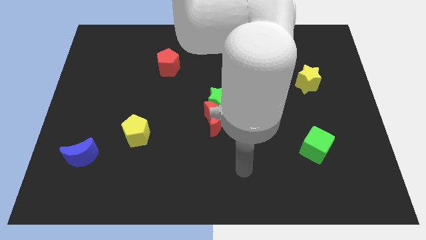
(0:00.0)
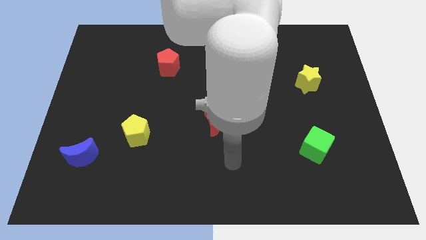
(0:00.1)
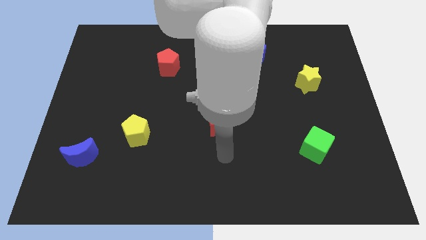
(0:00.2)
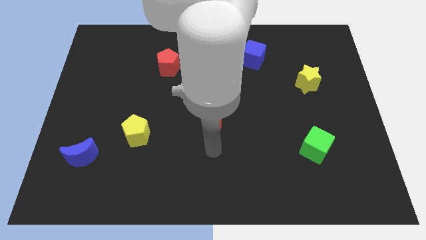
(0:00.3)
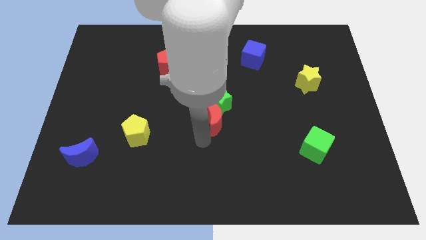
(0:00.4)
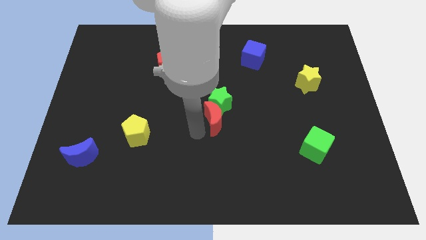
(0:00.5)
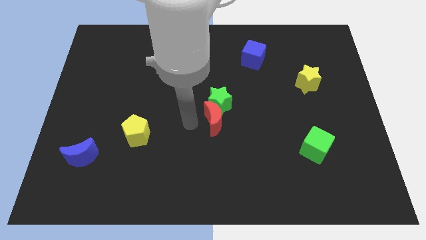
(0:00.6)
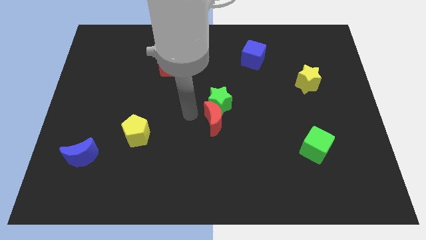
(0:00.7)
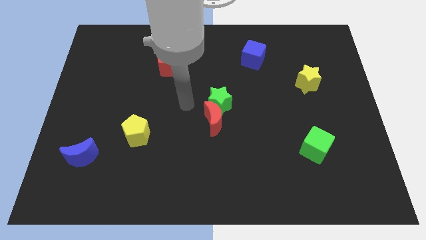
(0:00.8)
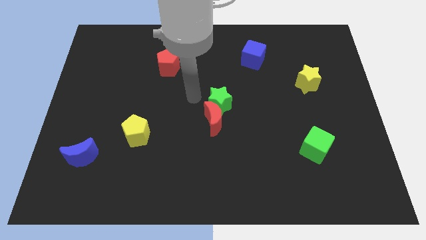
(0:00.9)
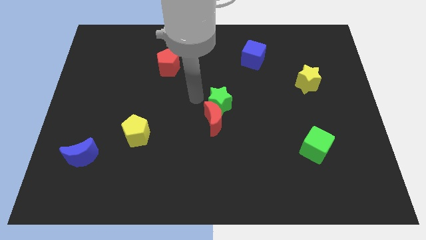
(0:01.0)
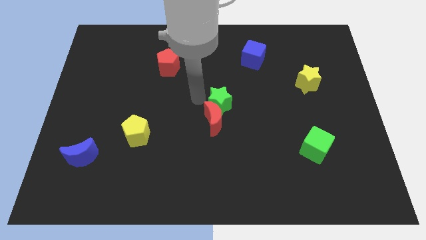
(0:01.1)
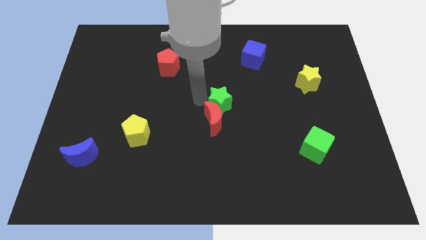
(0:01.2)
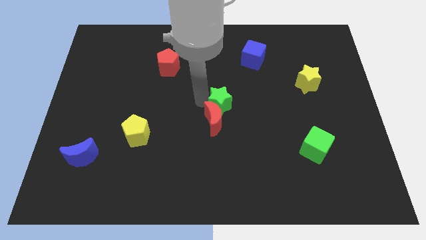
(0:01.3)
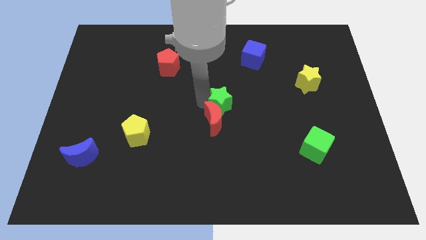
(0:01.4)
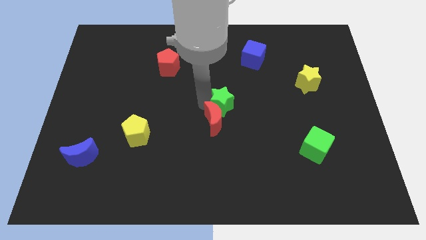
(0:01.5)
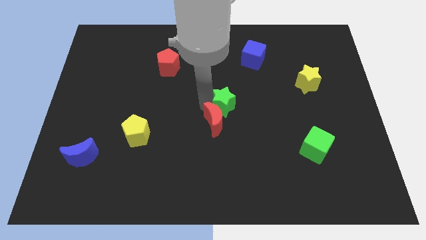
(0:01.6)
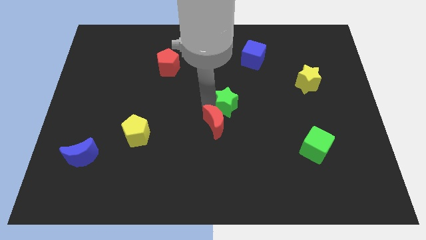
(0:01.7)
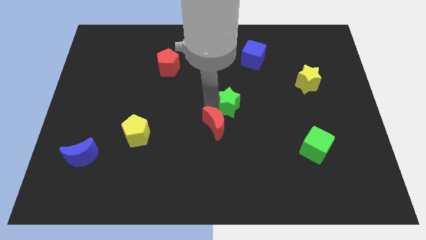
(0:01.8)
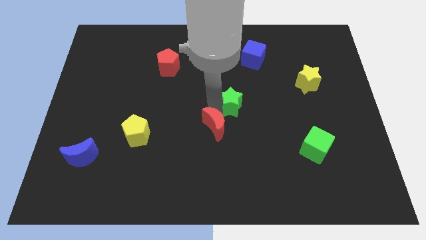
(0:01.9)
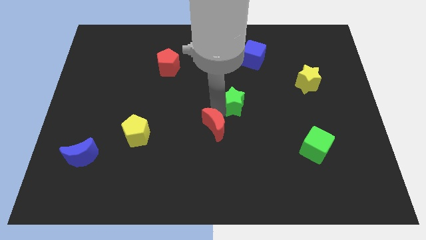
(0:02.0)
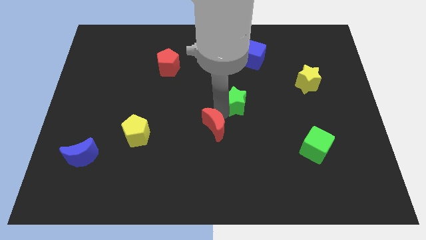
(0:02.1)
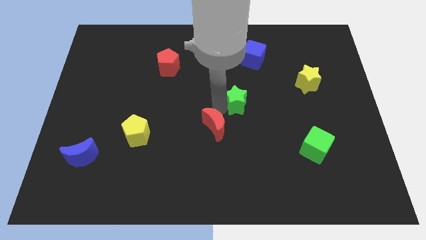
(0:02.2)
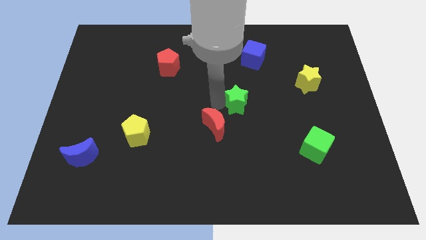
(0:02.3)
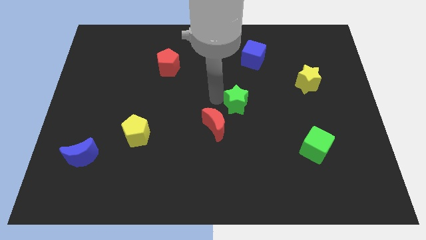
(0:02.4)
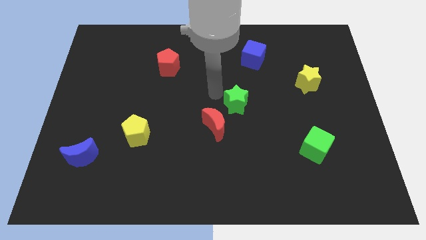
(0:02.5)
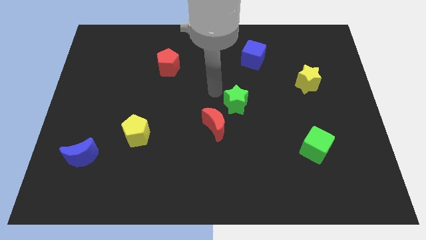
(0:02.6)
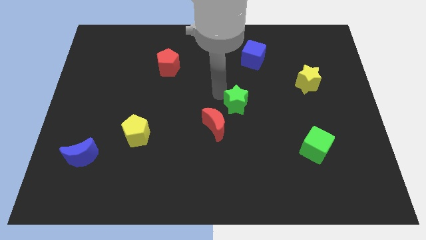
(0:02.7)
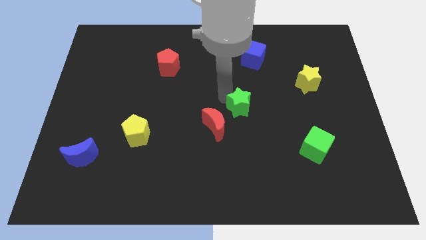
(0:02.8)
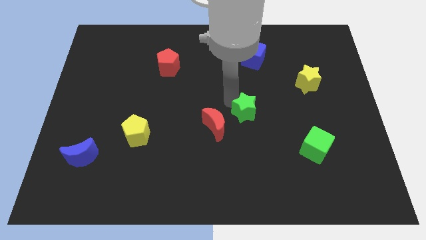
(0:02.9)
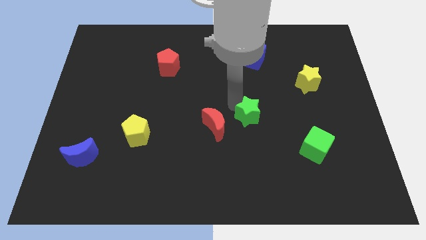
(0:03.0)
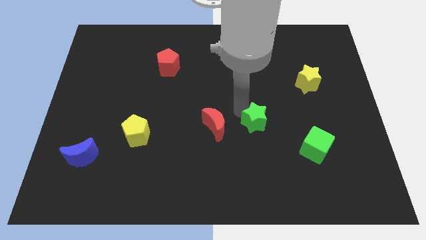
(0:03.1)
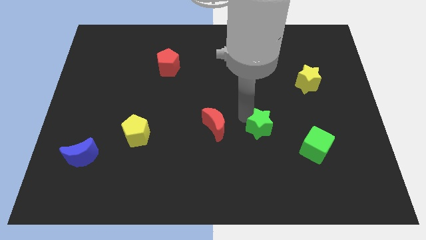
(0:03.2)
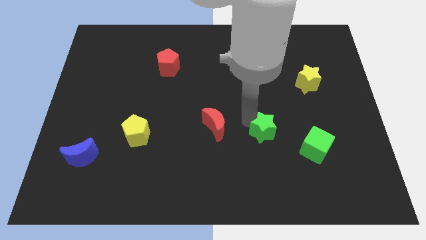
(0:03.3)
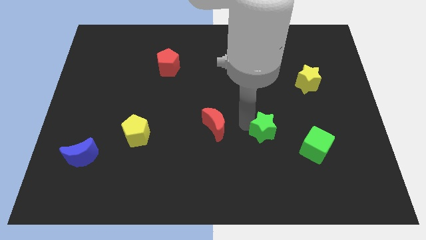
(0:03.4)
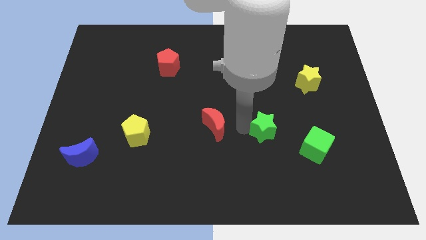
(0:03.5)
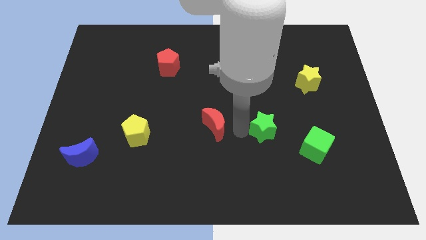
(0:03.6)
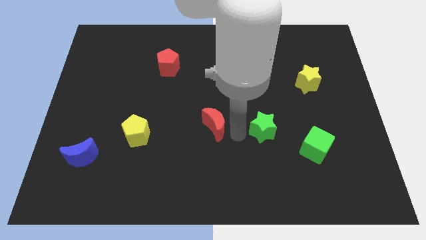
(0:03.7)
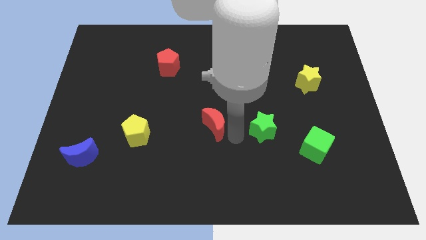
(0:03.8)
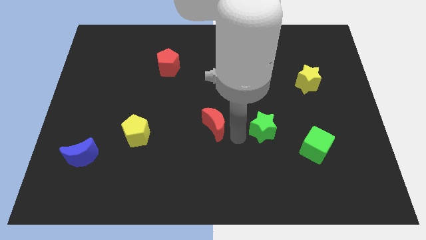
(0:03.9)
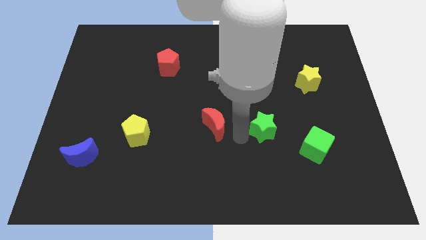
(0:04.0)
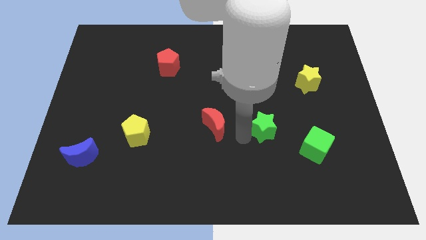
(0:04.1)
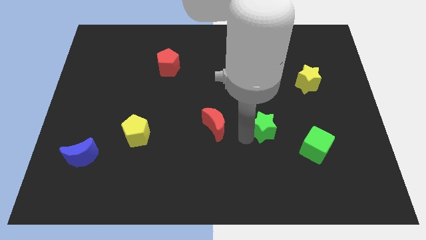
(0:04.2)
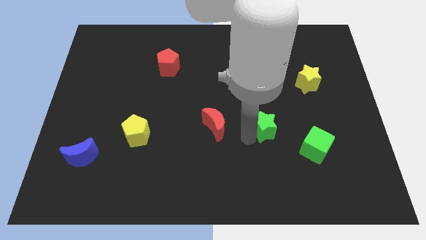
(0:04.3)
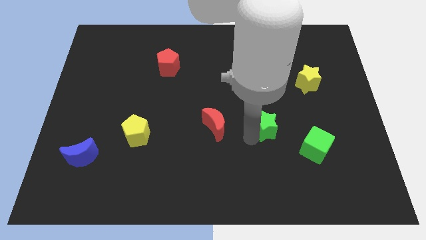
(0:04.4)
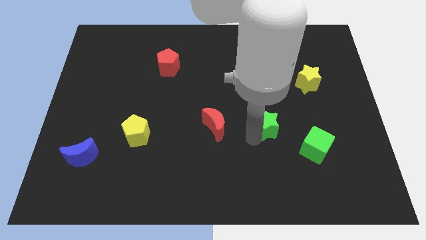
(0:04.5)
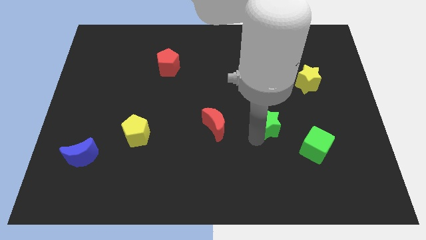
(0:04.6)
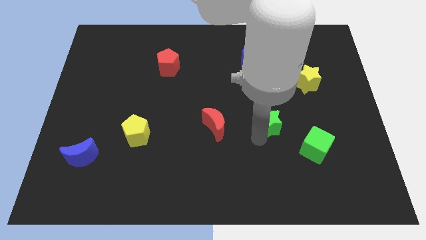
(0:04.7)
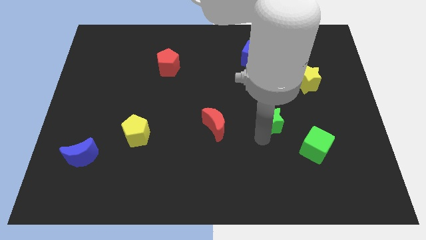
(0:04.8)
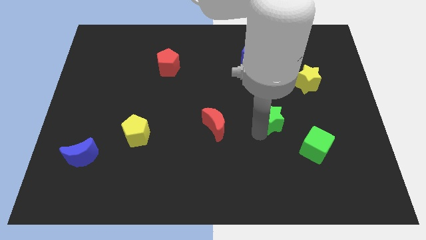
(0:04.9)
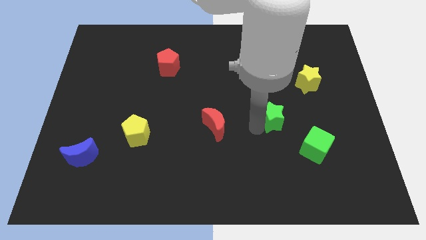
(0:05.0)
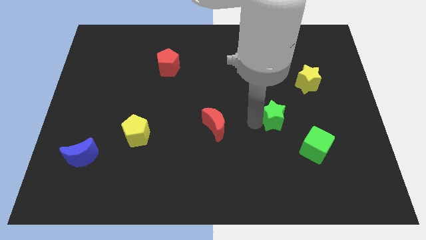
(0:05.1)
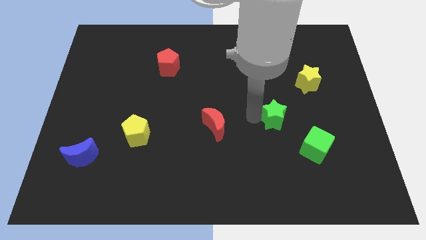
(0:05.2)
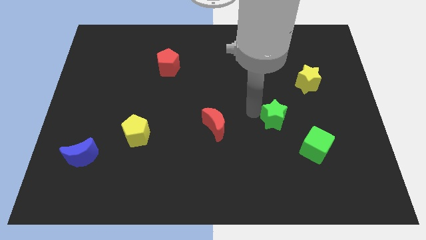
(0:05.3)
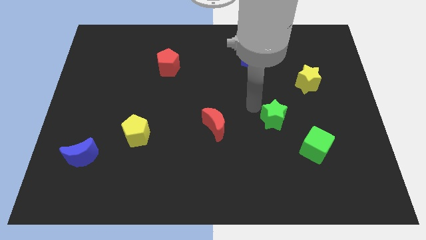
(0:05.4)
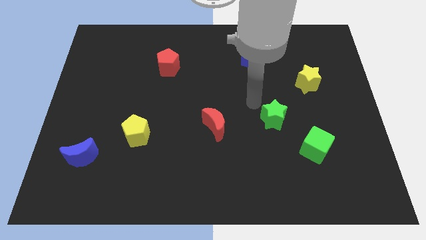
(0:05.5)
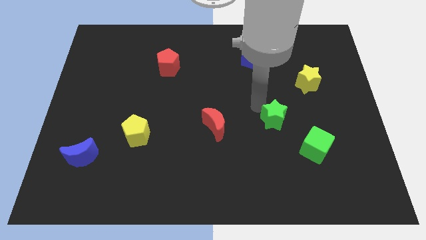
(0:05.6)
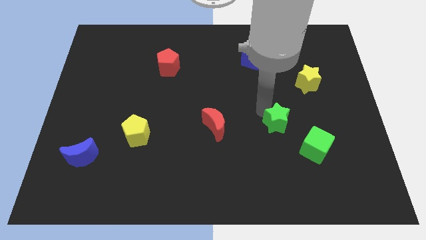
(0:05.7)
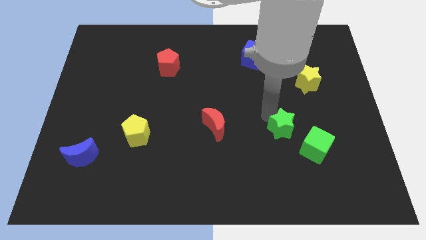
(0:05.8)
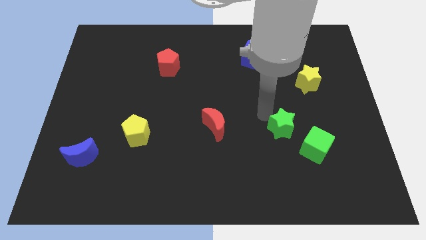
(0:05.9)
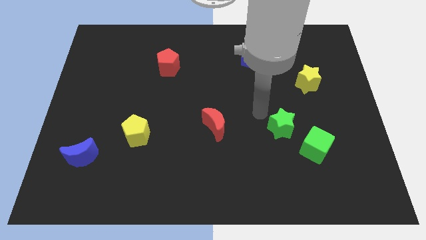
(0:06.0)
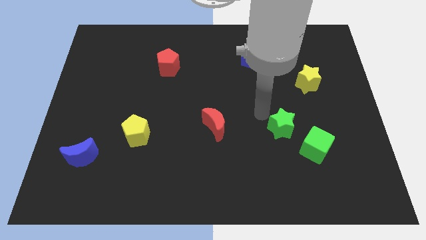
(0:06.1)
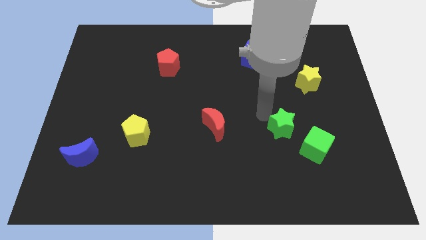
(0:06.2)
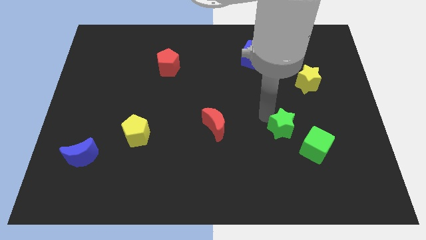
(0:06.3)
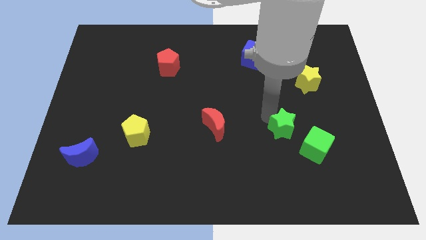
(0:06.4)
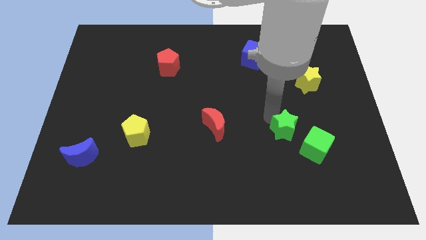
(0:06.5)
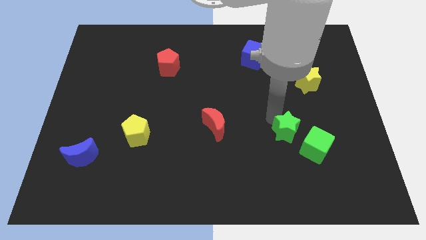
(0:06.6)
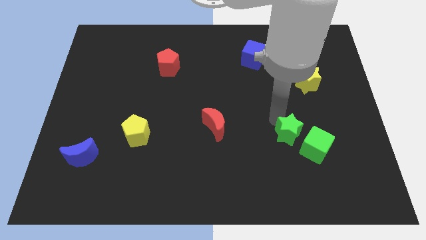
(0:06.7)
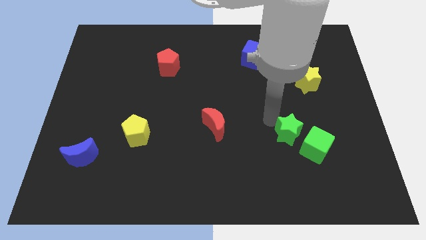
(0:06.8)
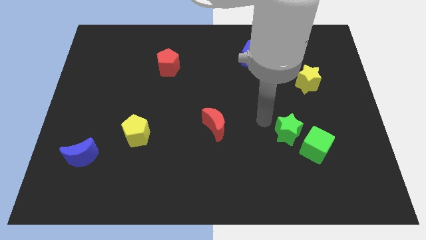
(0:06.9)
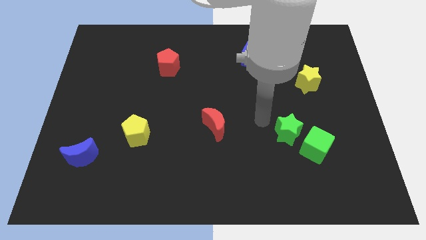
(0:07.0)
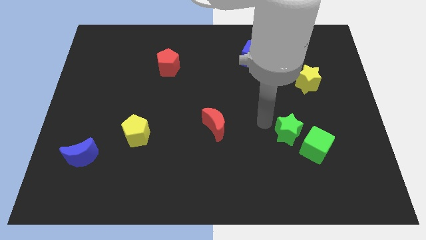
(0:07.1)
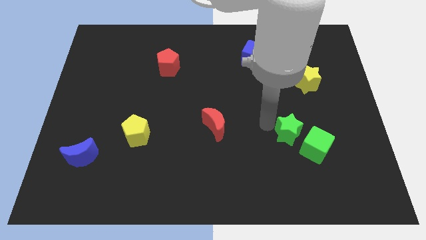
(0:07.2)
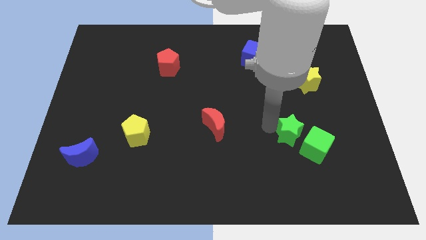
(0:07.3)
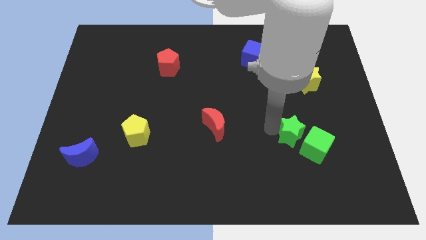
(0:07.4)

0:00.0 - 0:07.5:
put the green star close to the green cube
